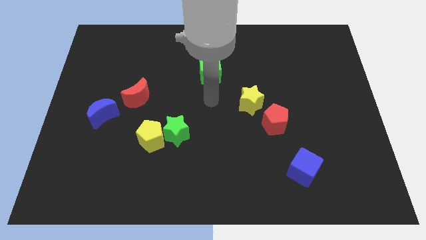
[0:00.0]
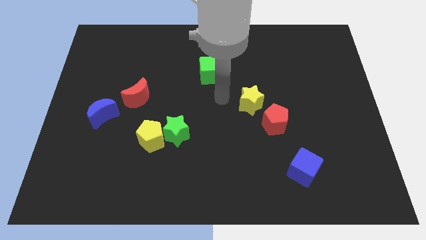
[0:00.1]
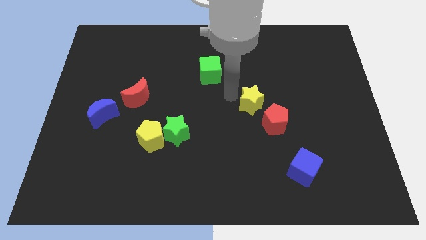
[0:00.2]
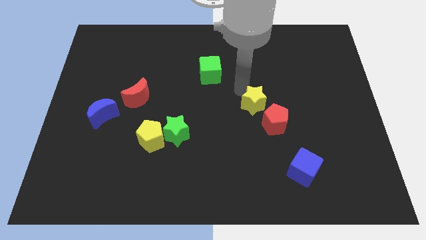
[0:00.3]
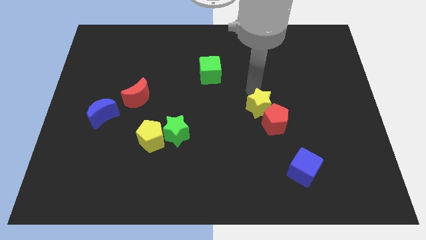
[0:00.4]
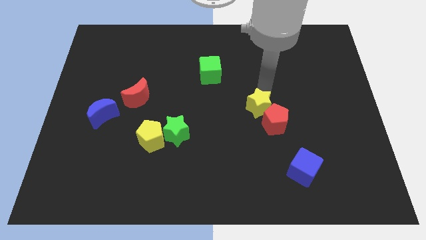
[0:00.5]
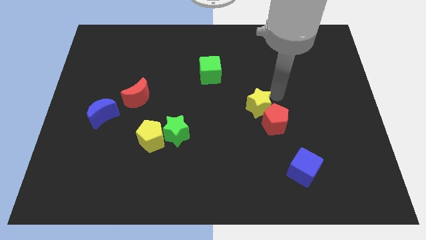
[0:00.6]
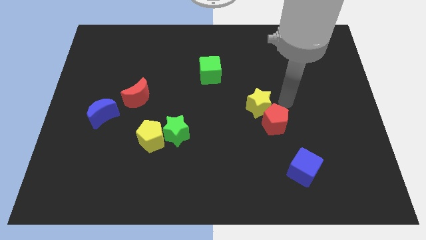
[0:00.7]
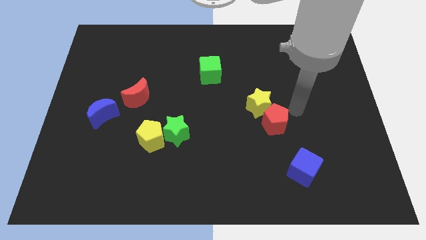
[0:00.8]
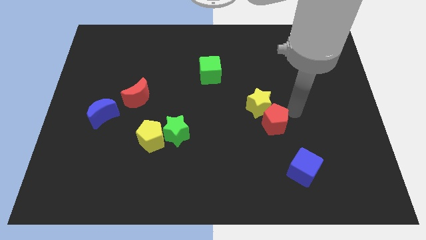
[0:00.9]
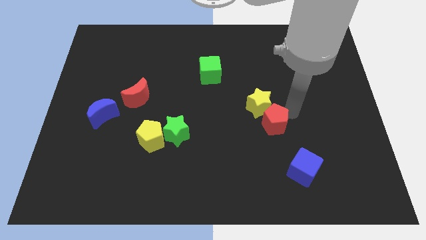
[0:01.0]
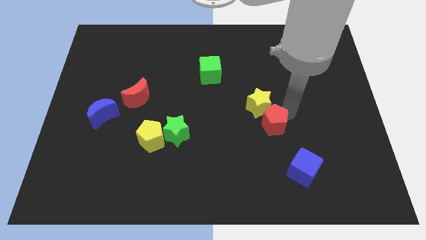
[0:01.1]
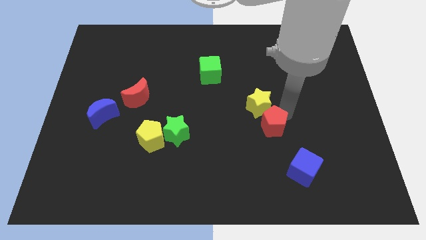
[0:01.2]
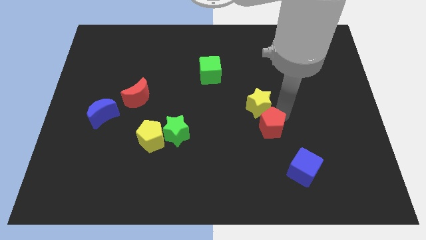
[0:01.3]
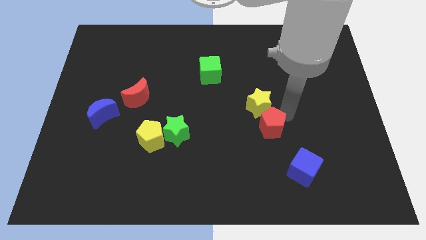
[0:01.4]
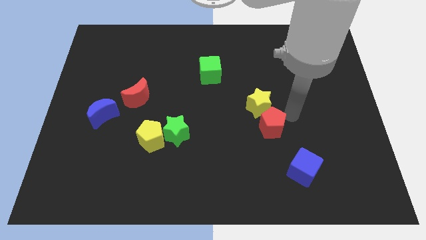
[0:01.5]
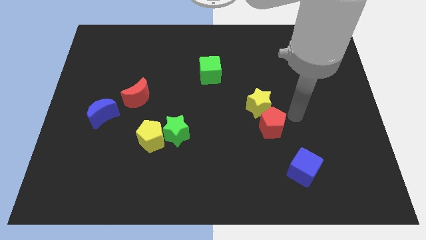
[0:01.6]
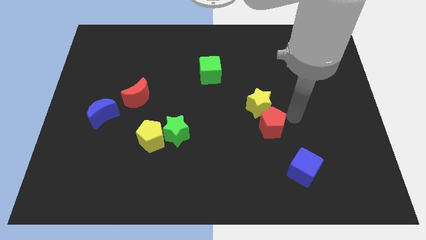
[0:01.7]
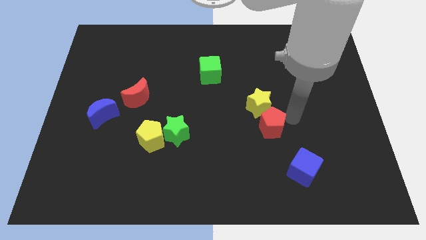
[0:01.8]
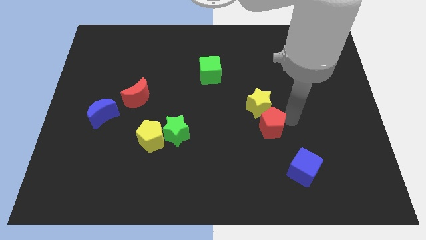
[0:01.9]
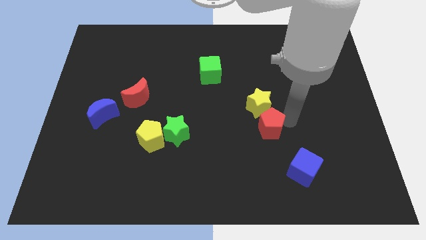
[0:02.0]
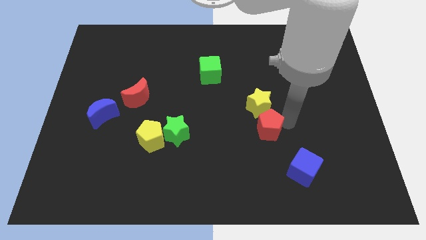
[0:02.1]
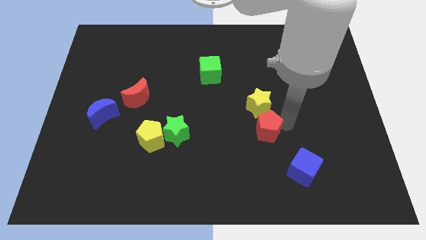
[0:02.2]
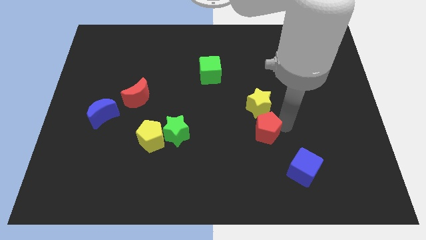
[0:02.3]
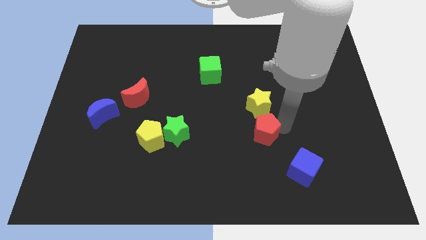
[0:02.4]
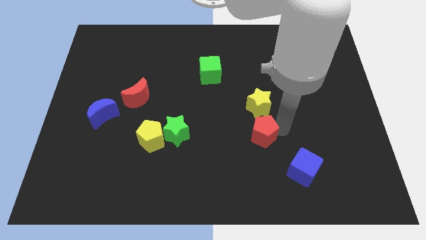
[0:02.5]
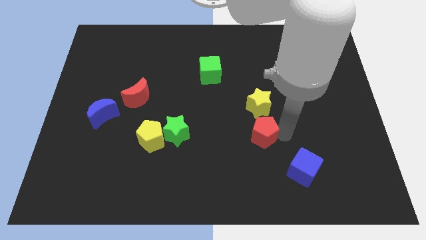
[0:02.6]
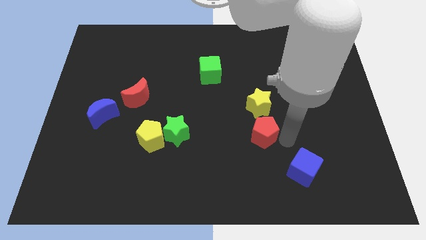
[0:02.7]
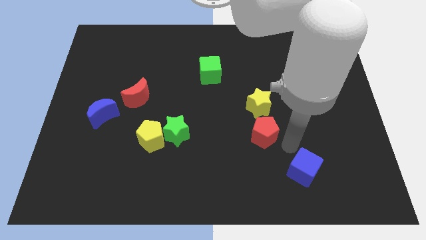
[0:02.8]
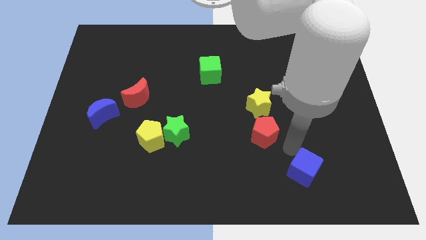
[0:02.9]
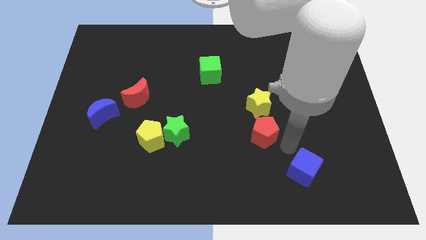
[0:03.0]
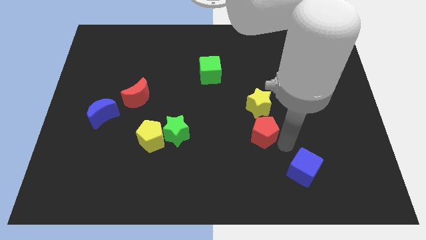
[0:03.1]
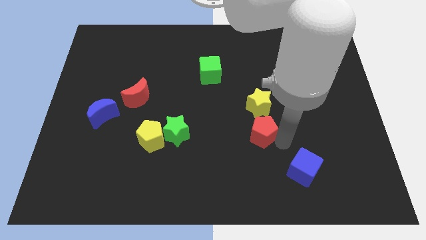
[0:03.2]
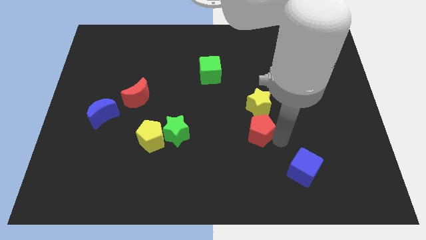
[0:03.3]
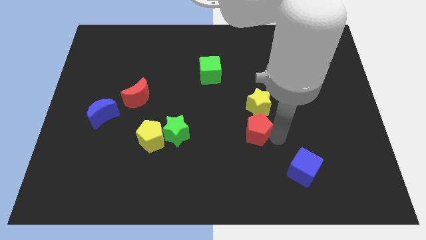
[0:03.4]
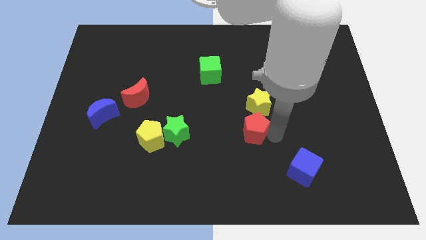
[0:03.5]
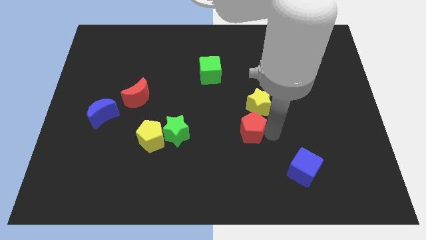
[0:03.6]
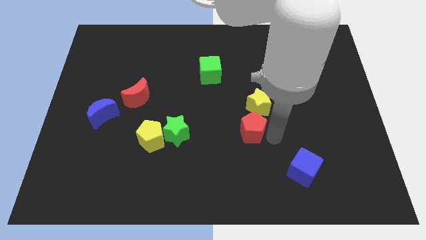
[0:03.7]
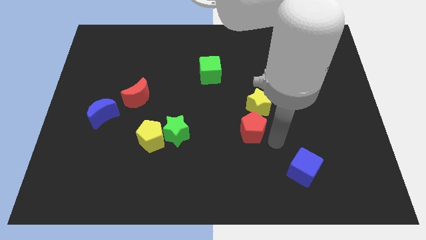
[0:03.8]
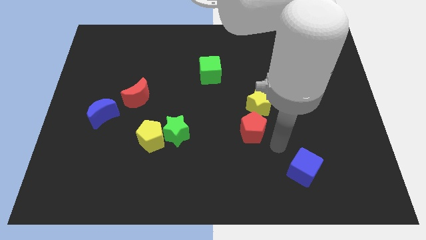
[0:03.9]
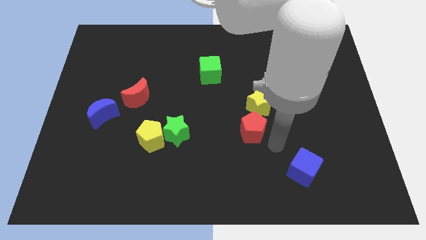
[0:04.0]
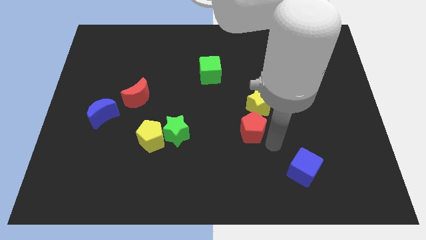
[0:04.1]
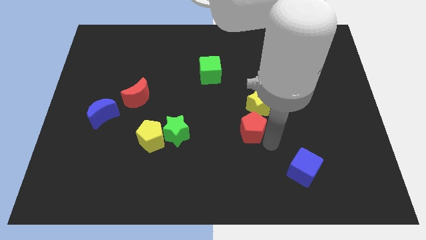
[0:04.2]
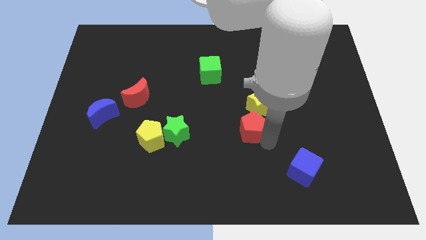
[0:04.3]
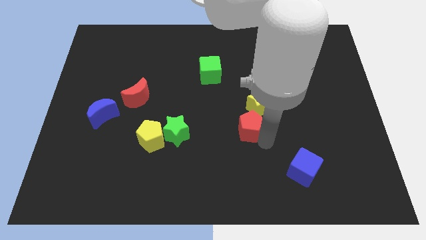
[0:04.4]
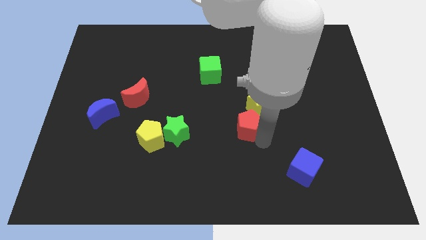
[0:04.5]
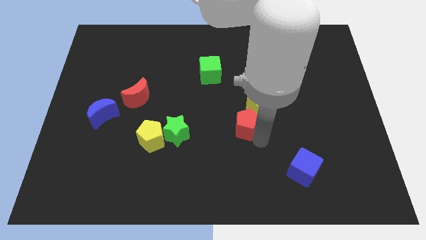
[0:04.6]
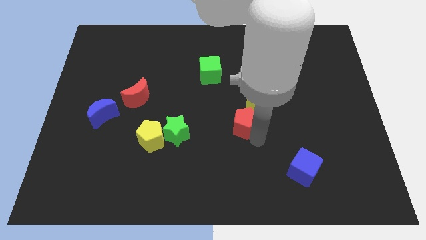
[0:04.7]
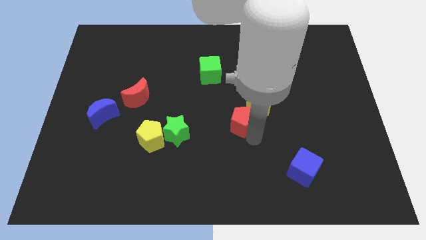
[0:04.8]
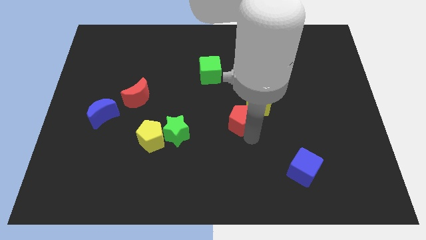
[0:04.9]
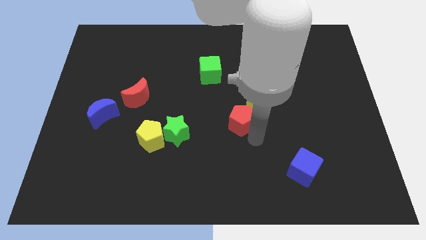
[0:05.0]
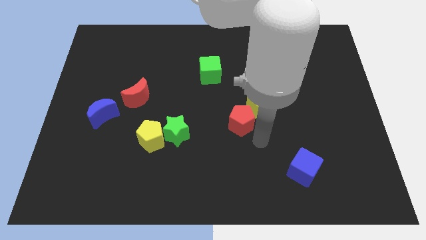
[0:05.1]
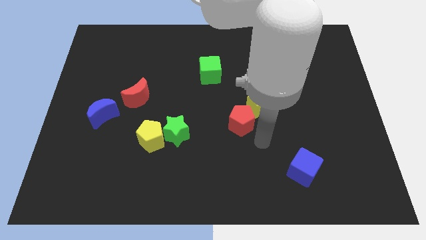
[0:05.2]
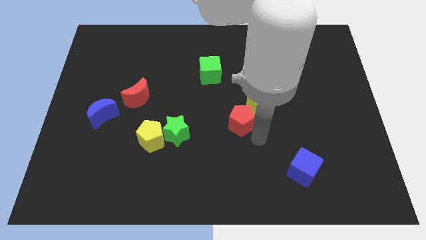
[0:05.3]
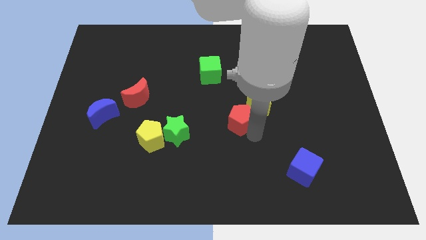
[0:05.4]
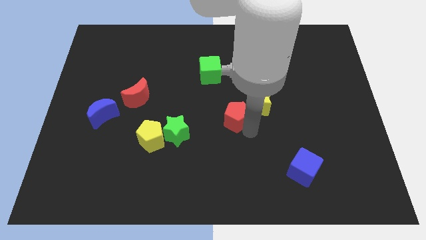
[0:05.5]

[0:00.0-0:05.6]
put the red pentagon just left of the yellow star

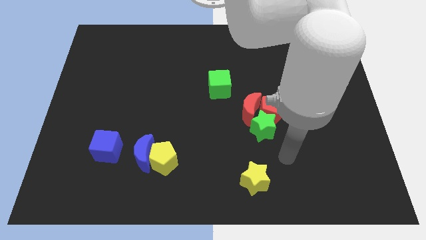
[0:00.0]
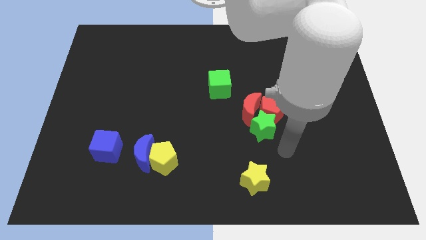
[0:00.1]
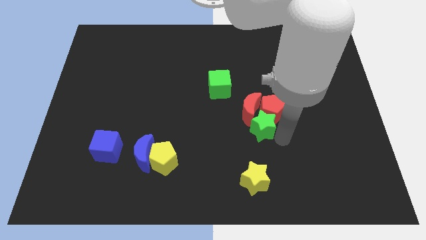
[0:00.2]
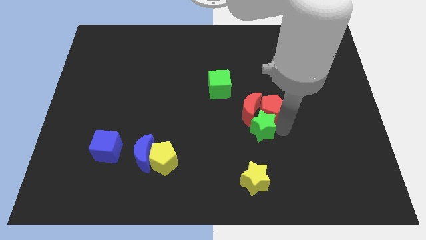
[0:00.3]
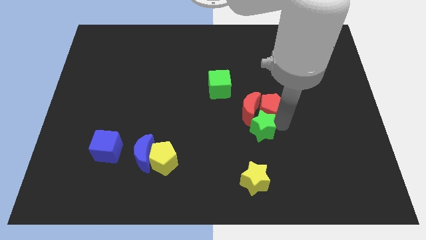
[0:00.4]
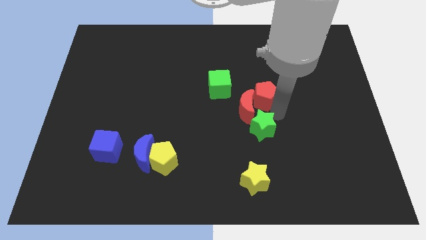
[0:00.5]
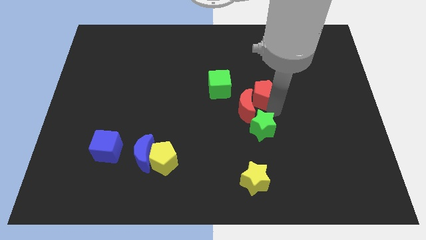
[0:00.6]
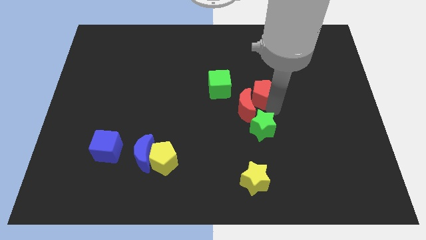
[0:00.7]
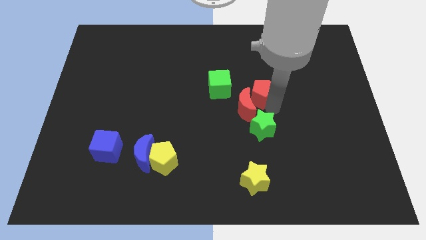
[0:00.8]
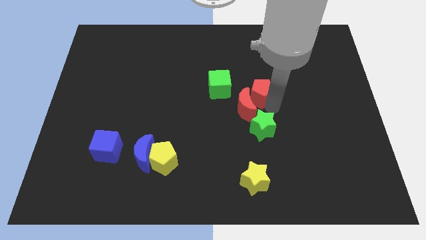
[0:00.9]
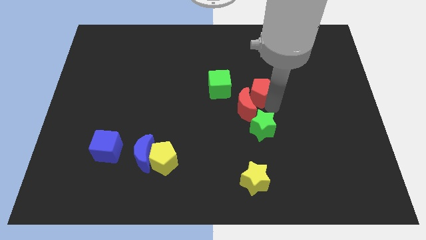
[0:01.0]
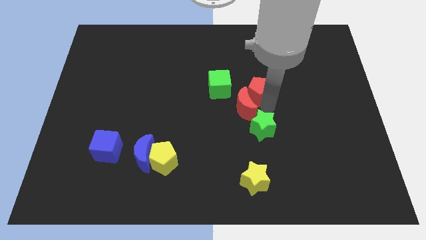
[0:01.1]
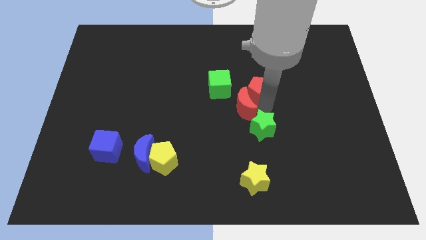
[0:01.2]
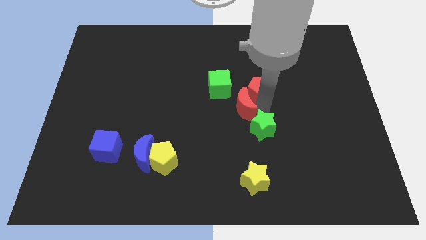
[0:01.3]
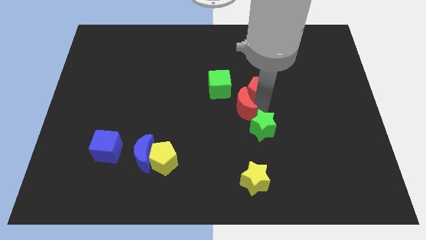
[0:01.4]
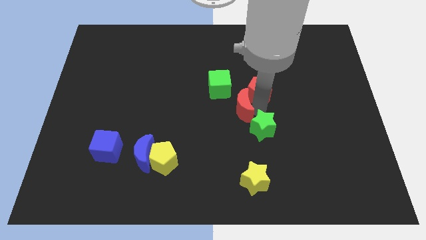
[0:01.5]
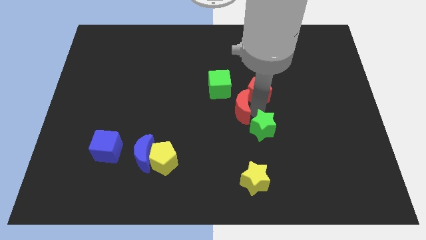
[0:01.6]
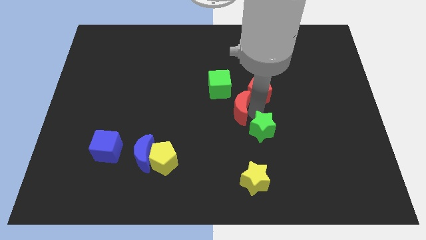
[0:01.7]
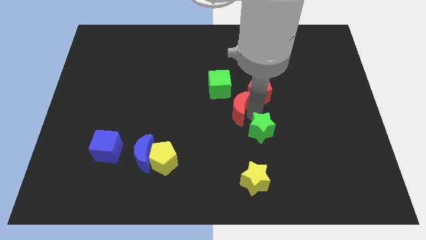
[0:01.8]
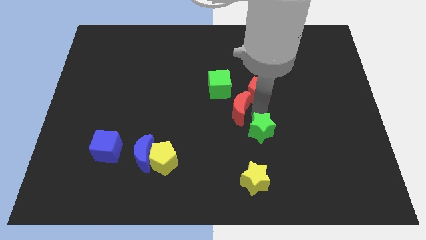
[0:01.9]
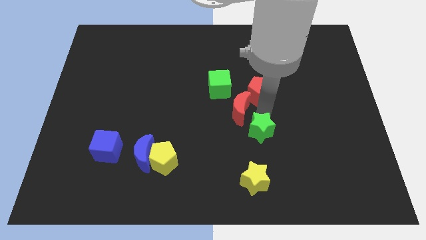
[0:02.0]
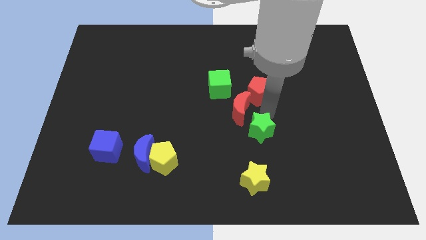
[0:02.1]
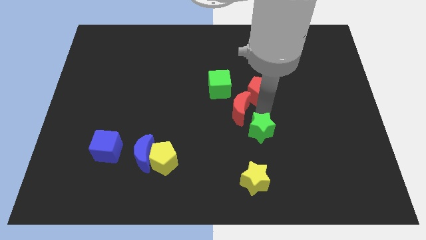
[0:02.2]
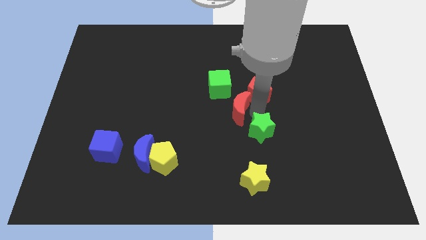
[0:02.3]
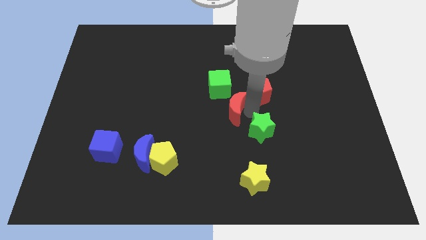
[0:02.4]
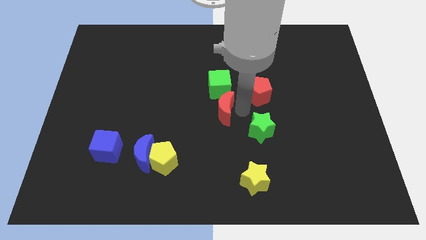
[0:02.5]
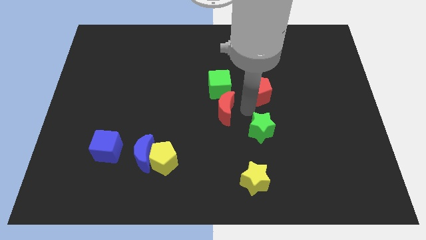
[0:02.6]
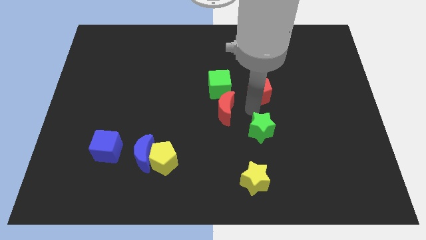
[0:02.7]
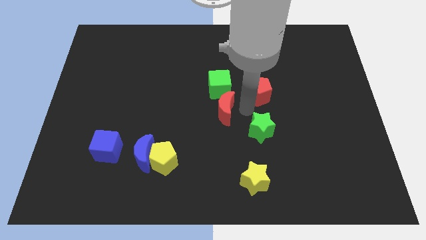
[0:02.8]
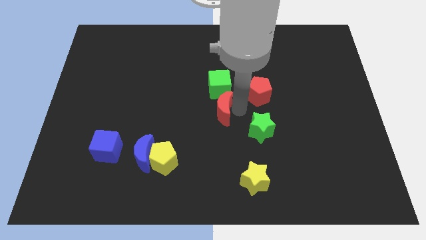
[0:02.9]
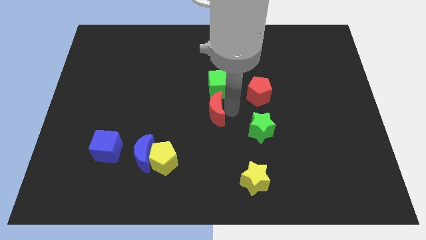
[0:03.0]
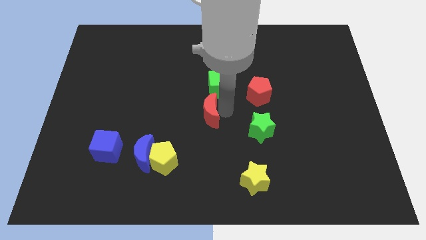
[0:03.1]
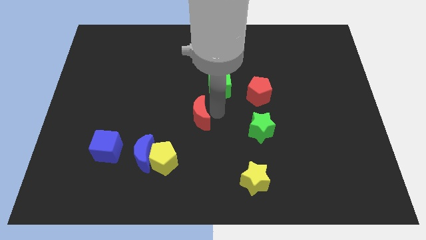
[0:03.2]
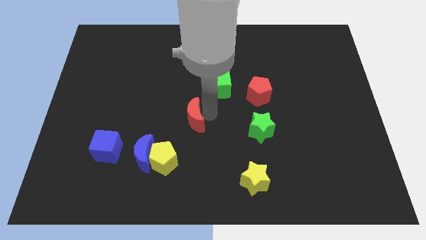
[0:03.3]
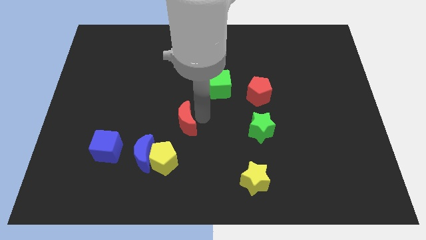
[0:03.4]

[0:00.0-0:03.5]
move the red moon to the top of the yellow pentagon
